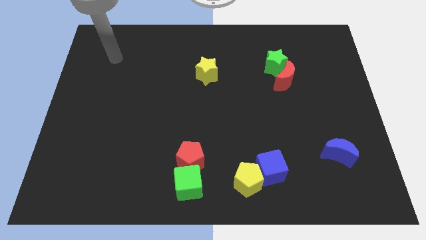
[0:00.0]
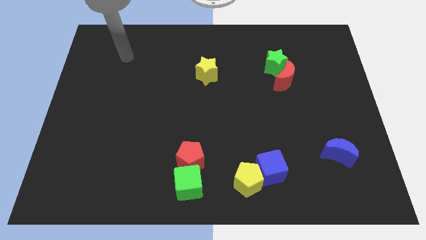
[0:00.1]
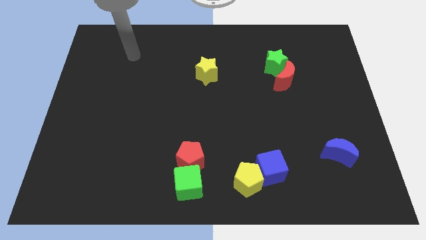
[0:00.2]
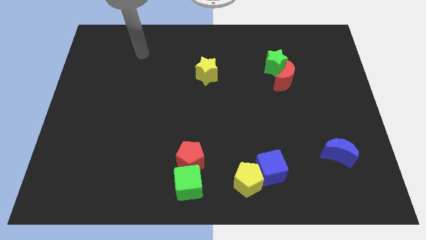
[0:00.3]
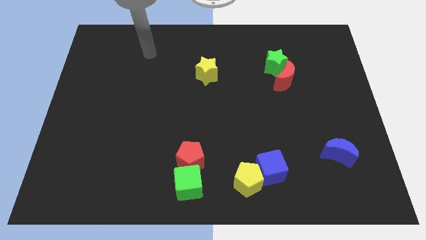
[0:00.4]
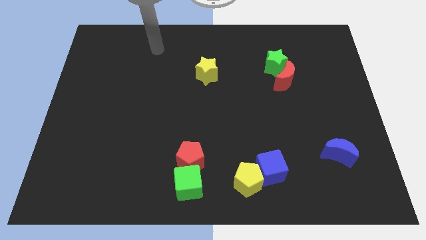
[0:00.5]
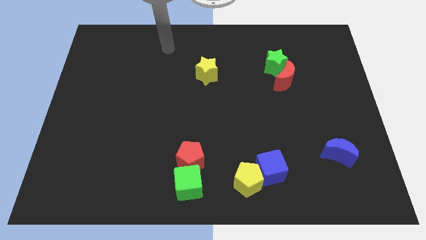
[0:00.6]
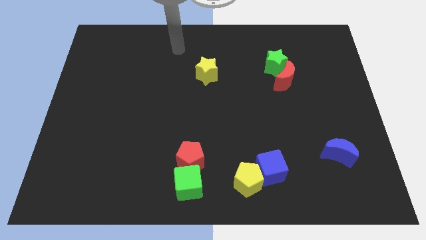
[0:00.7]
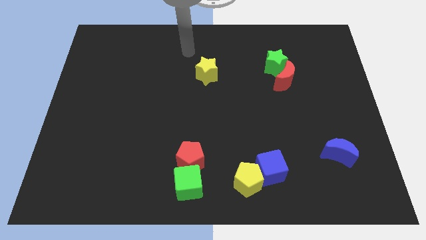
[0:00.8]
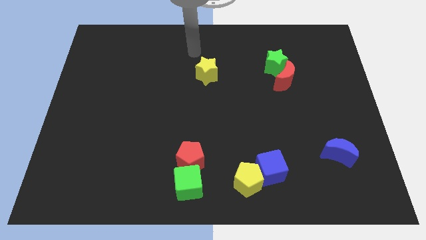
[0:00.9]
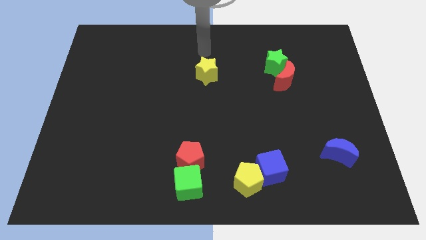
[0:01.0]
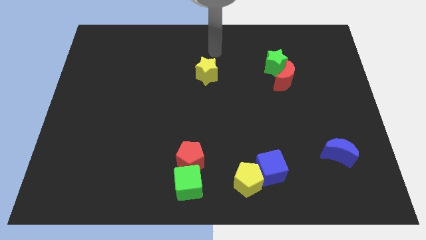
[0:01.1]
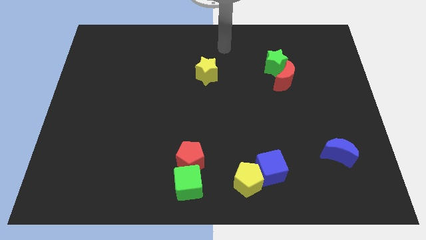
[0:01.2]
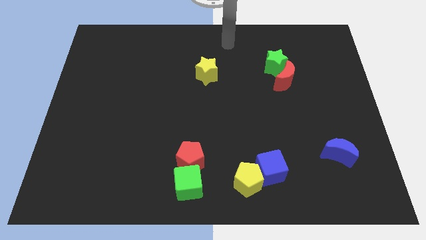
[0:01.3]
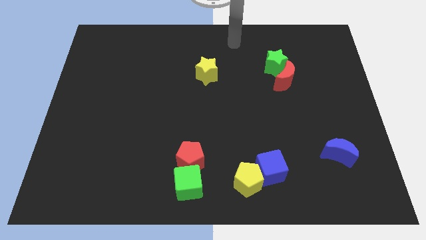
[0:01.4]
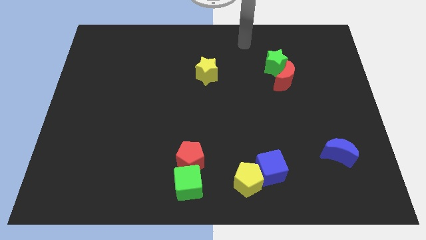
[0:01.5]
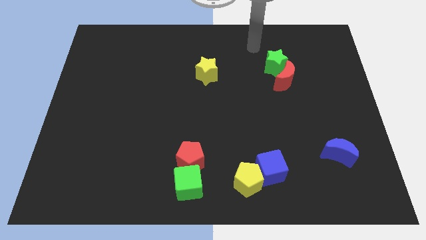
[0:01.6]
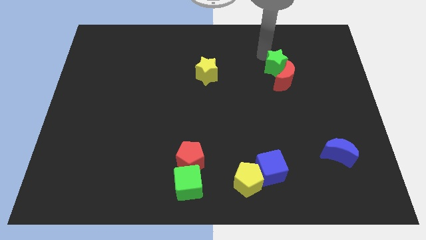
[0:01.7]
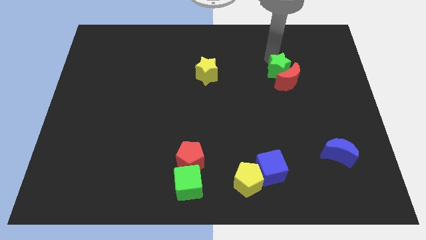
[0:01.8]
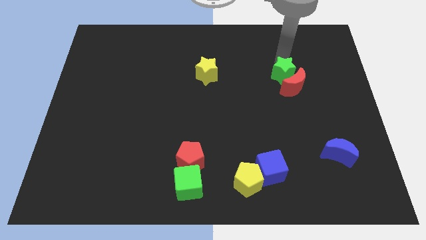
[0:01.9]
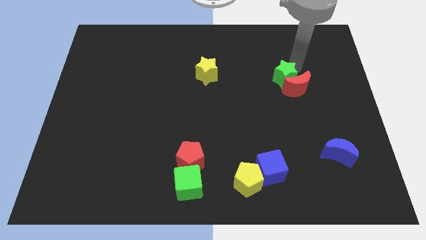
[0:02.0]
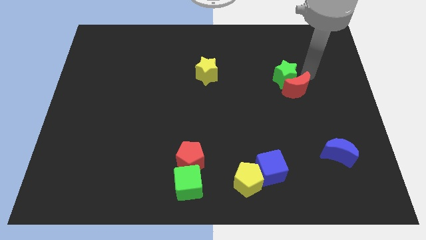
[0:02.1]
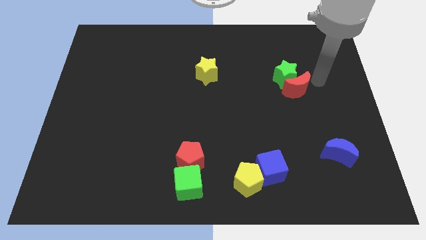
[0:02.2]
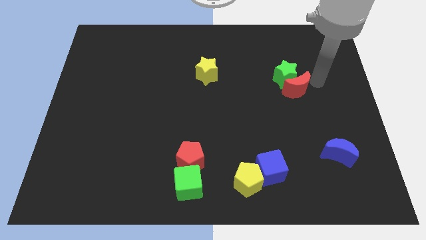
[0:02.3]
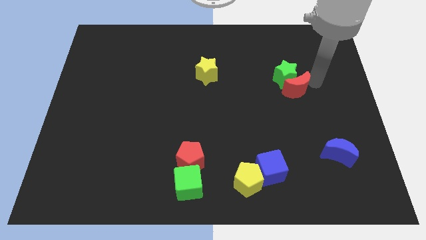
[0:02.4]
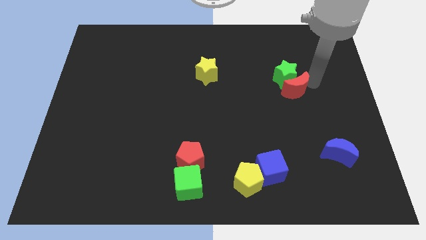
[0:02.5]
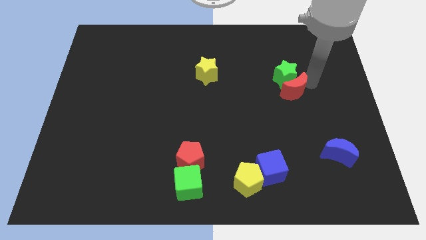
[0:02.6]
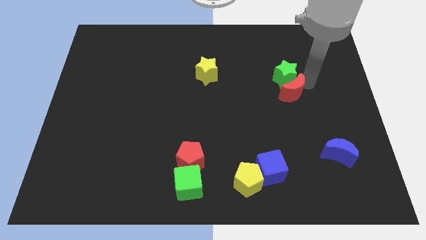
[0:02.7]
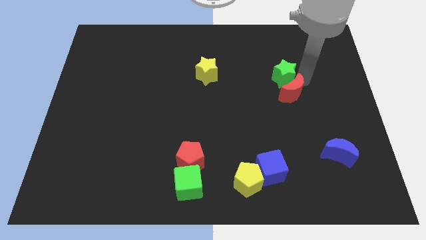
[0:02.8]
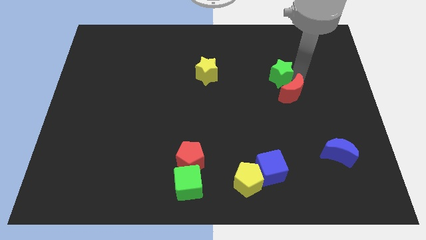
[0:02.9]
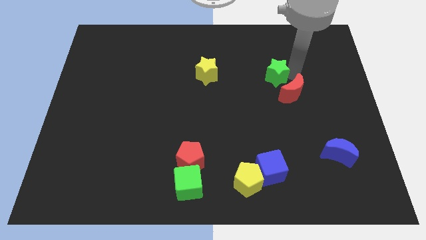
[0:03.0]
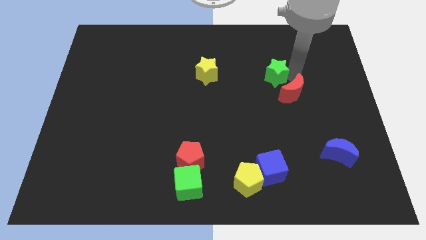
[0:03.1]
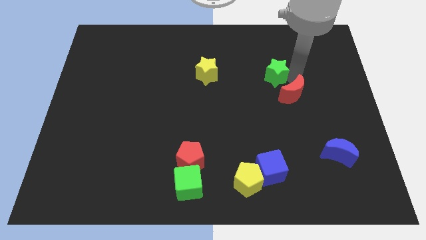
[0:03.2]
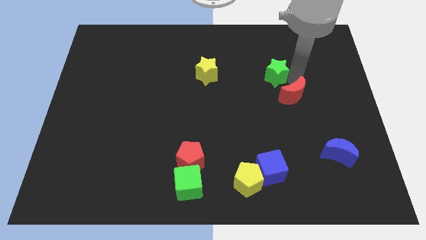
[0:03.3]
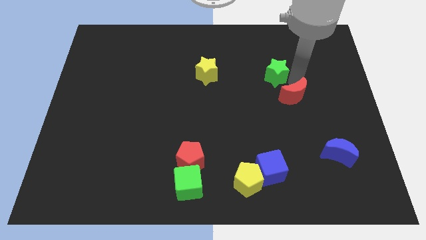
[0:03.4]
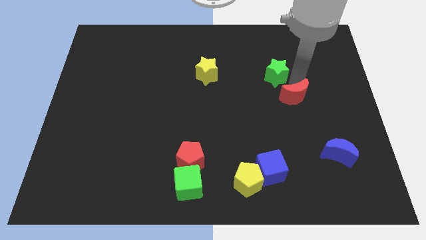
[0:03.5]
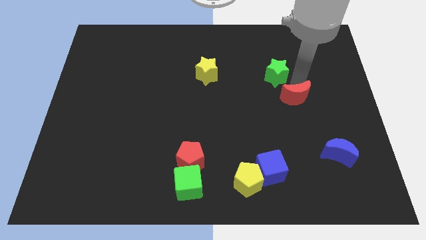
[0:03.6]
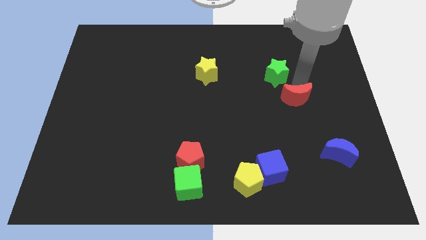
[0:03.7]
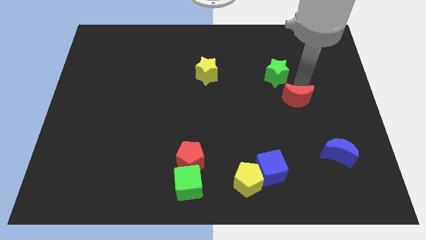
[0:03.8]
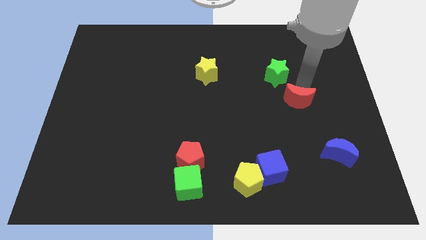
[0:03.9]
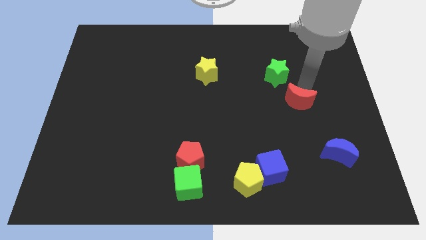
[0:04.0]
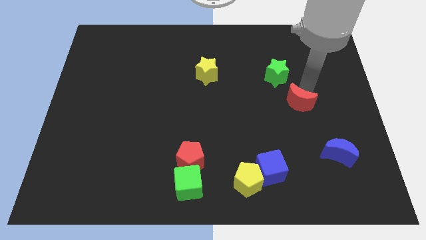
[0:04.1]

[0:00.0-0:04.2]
slightly move the red moon down

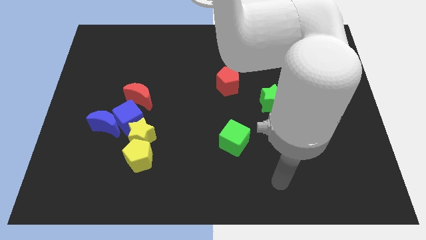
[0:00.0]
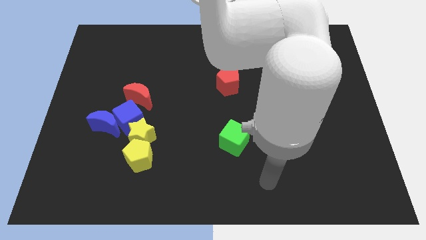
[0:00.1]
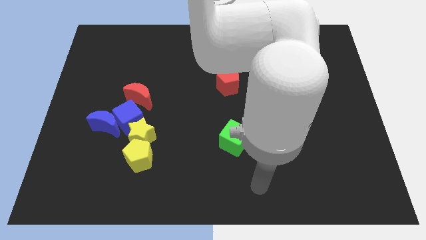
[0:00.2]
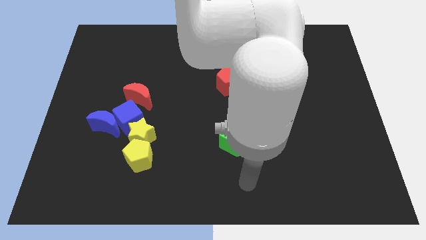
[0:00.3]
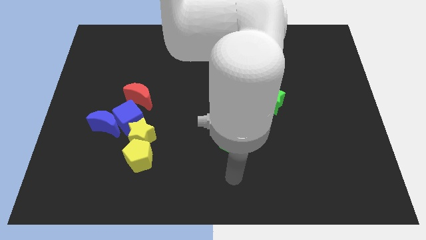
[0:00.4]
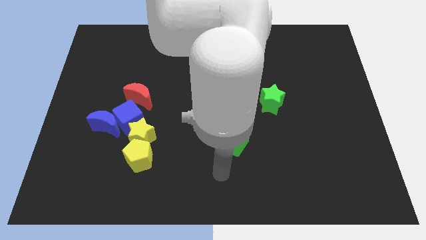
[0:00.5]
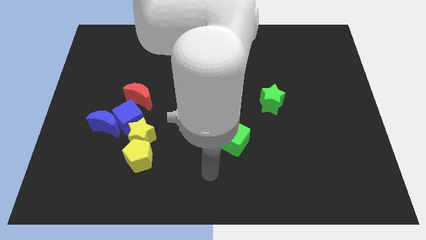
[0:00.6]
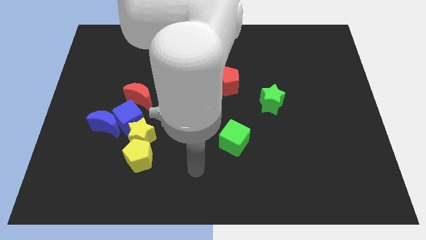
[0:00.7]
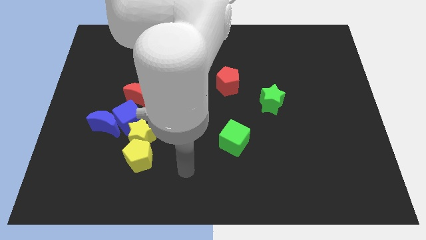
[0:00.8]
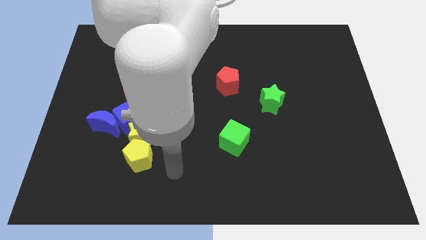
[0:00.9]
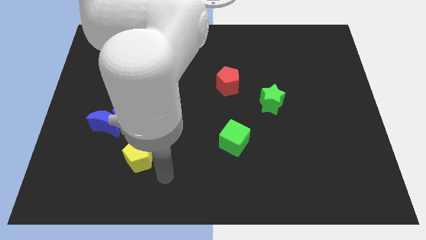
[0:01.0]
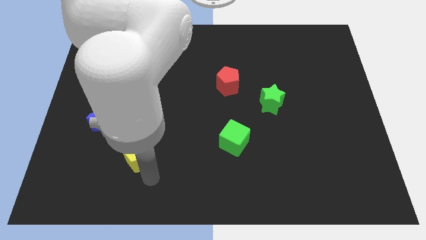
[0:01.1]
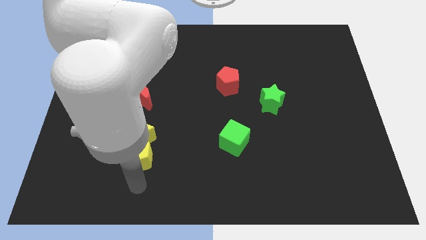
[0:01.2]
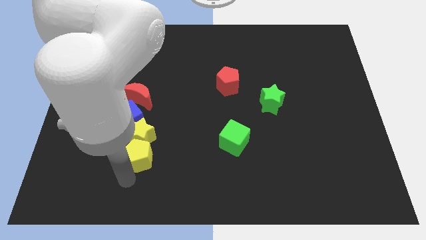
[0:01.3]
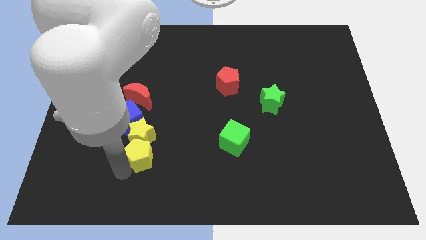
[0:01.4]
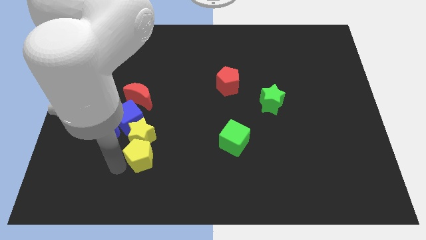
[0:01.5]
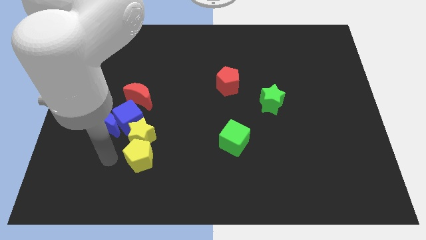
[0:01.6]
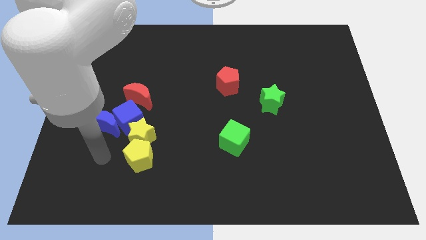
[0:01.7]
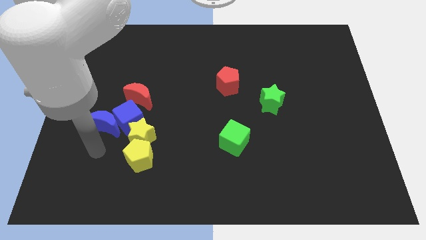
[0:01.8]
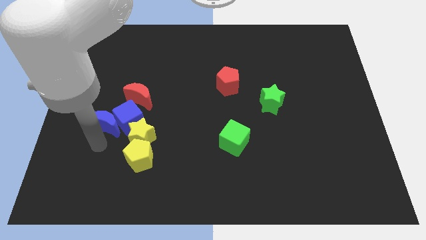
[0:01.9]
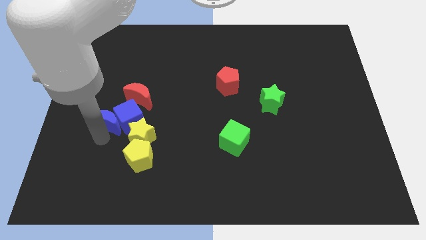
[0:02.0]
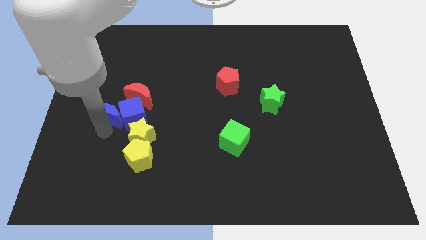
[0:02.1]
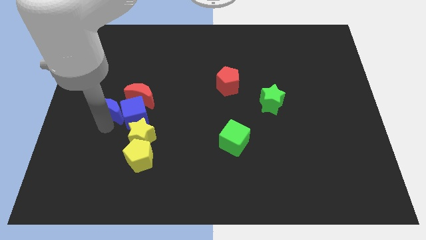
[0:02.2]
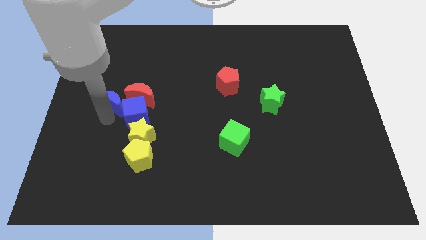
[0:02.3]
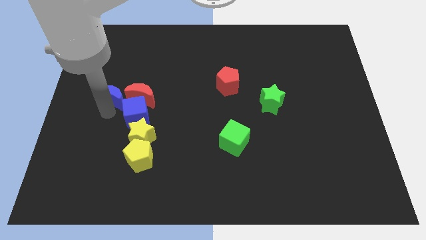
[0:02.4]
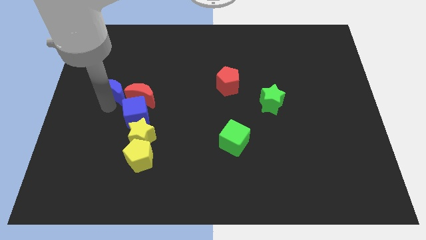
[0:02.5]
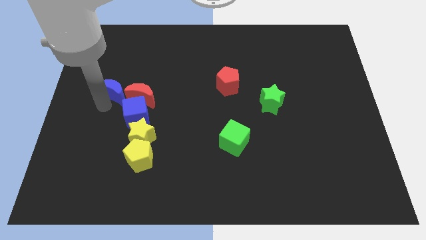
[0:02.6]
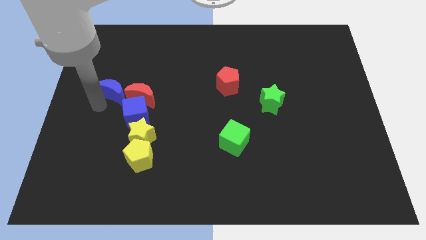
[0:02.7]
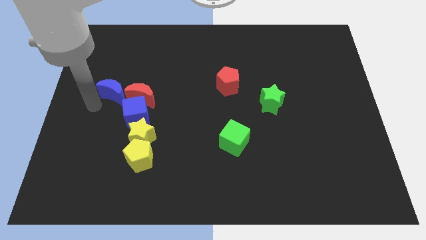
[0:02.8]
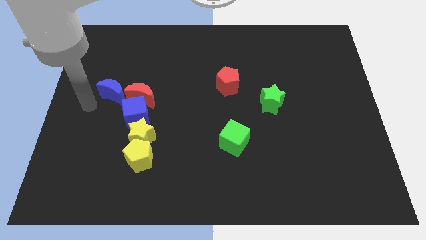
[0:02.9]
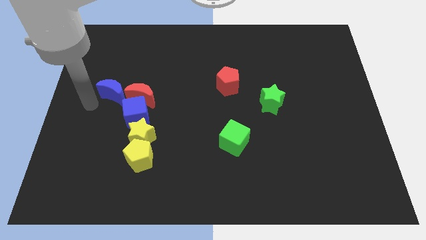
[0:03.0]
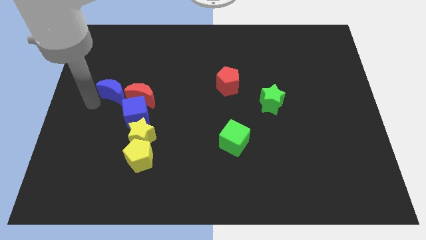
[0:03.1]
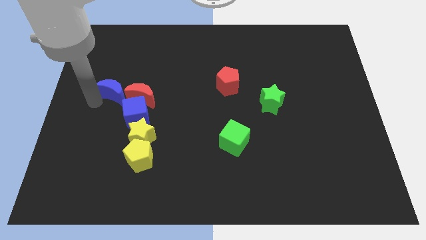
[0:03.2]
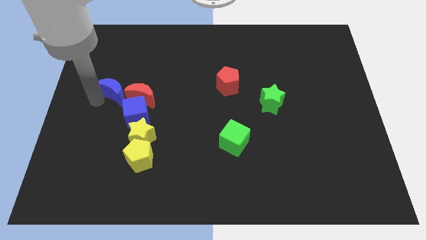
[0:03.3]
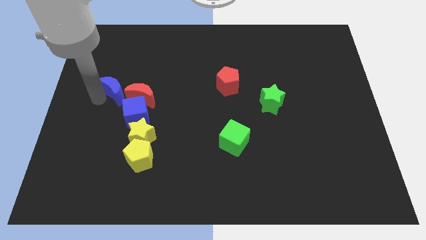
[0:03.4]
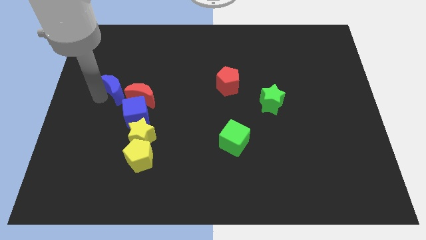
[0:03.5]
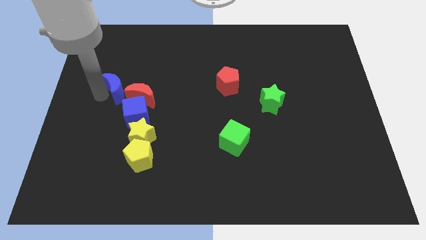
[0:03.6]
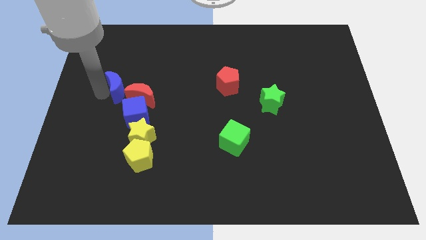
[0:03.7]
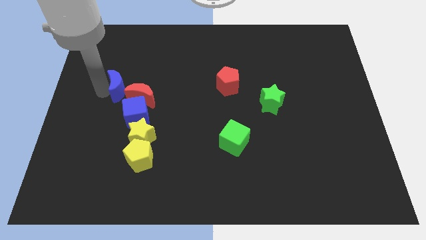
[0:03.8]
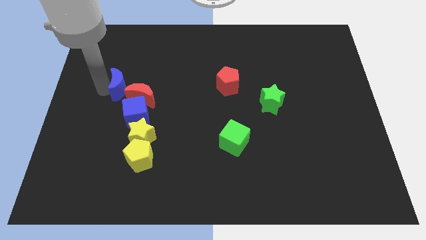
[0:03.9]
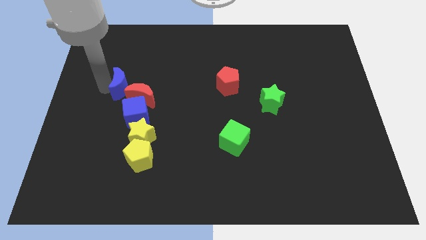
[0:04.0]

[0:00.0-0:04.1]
slide the blue moon up and then right slightly
